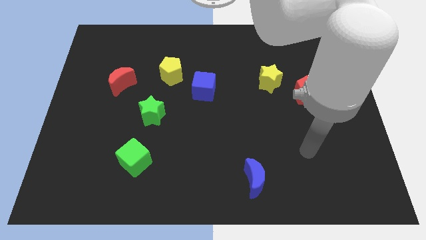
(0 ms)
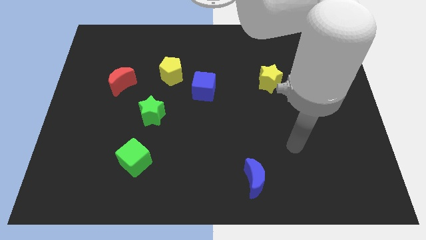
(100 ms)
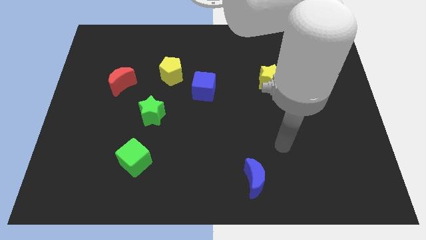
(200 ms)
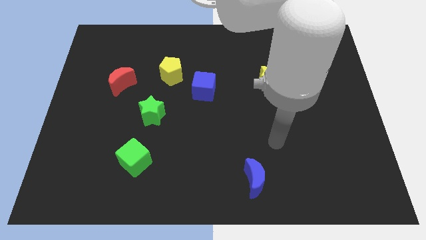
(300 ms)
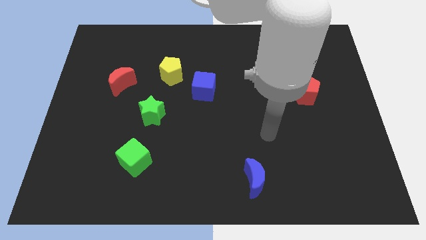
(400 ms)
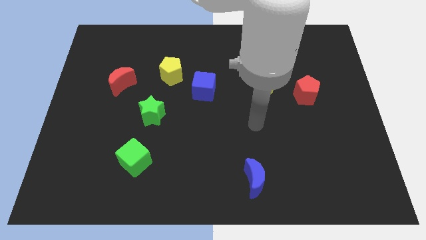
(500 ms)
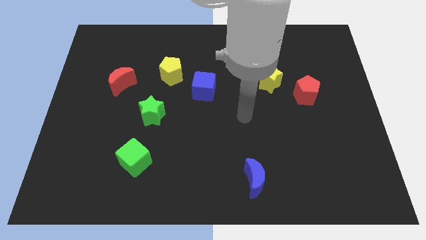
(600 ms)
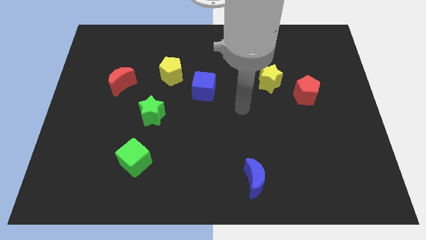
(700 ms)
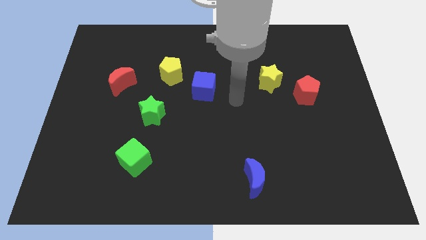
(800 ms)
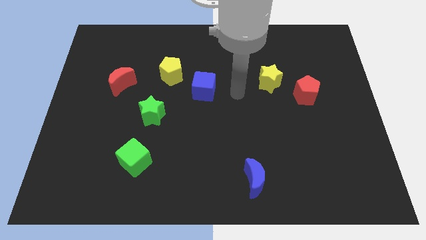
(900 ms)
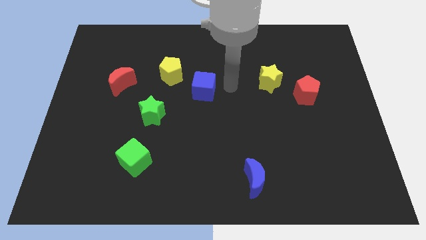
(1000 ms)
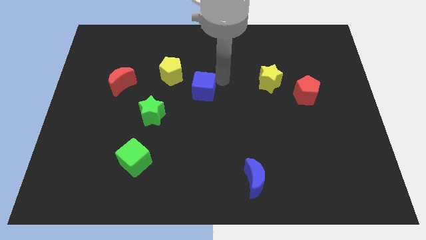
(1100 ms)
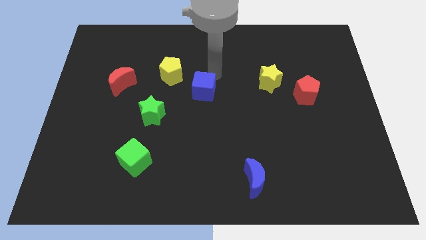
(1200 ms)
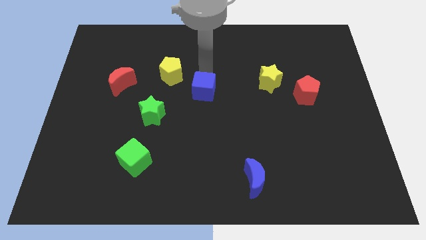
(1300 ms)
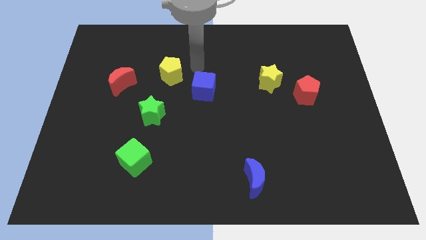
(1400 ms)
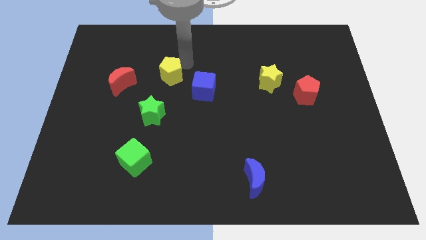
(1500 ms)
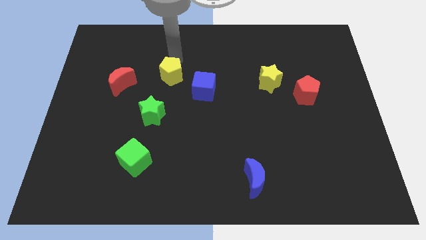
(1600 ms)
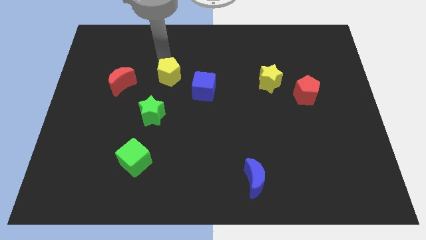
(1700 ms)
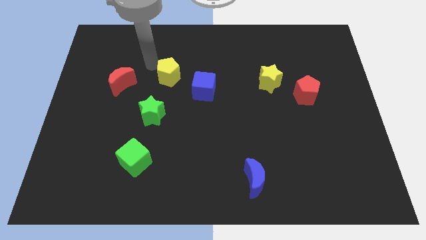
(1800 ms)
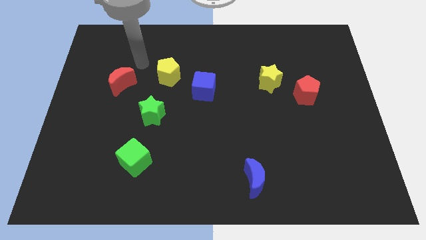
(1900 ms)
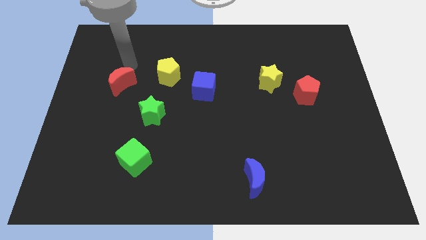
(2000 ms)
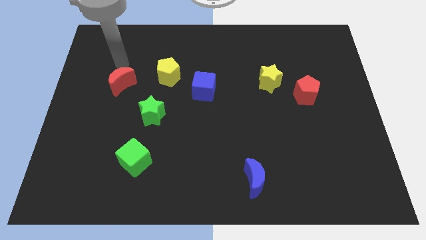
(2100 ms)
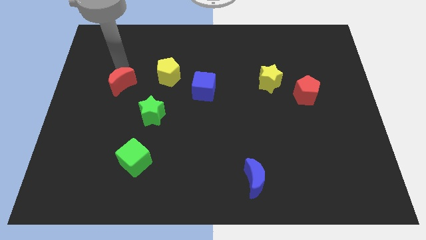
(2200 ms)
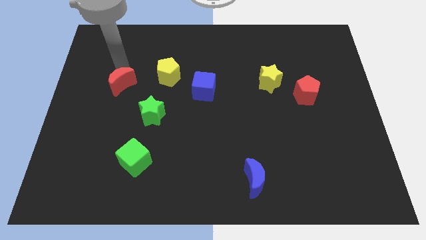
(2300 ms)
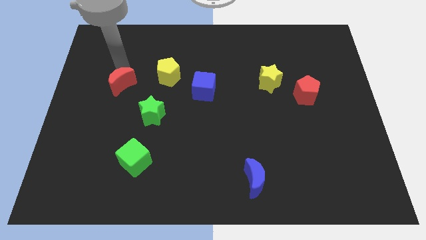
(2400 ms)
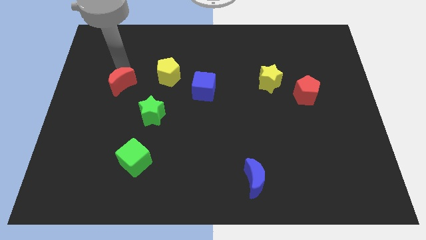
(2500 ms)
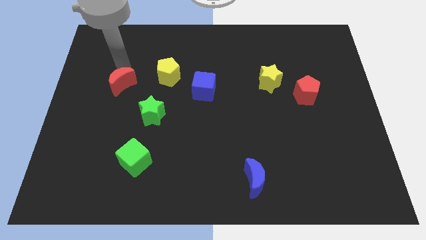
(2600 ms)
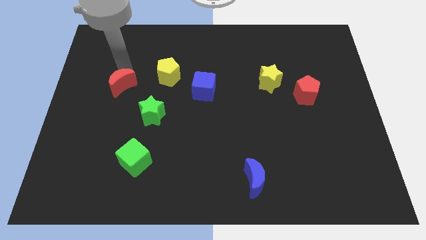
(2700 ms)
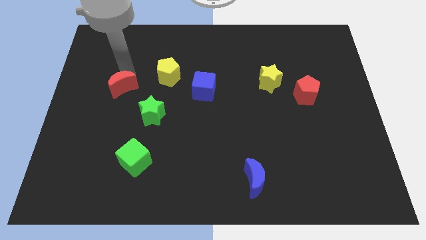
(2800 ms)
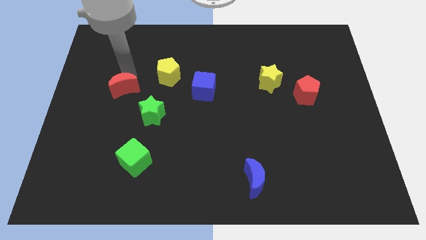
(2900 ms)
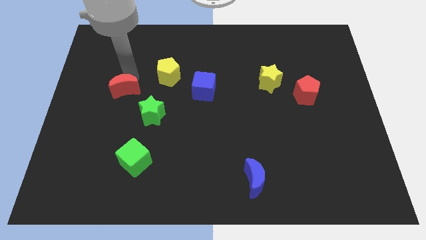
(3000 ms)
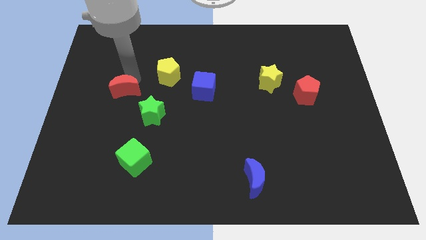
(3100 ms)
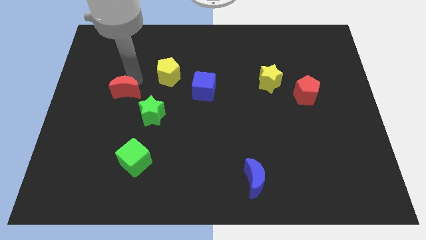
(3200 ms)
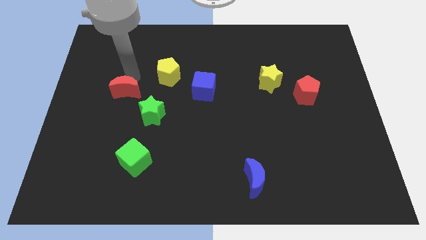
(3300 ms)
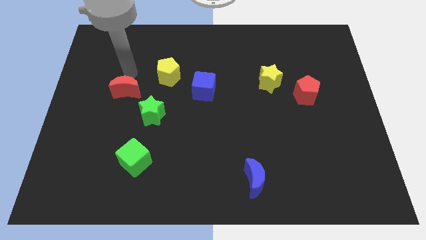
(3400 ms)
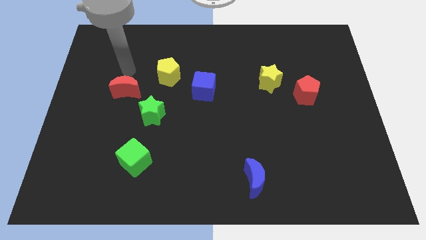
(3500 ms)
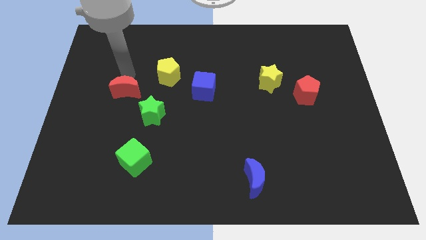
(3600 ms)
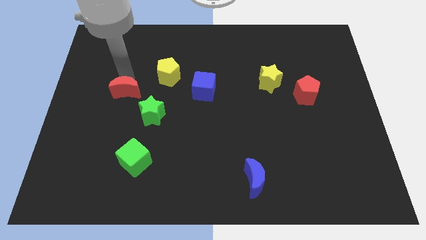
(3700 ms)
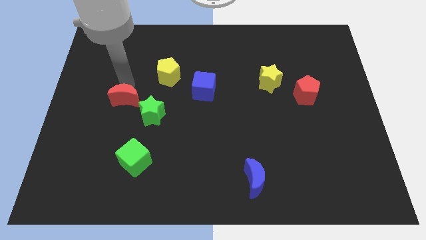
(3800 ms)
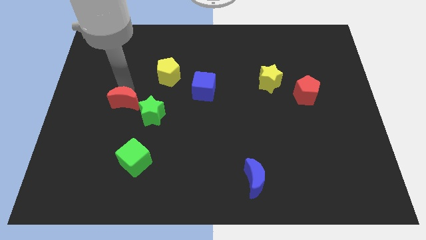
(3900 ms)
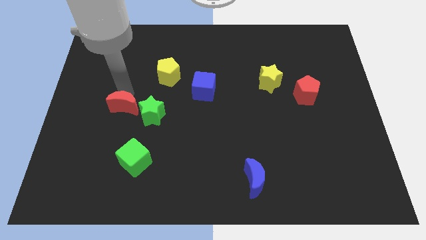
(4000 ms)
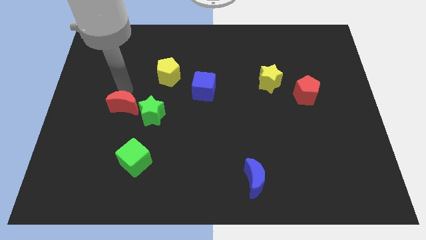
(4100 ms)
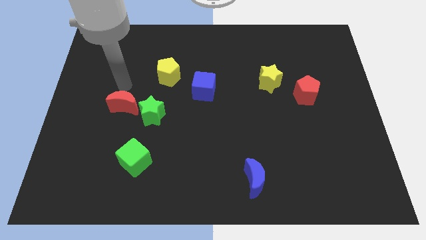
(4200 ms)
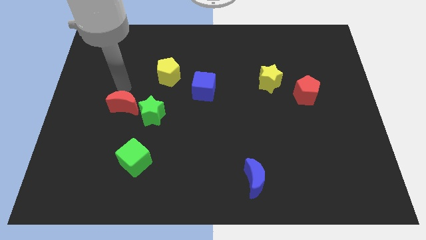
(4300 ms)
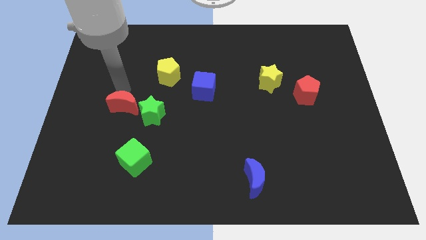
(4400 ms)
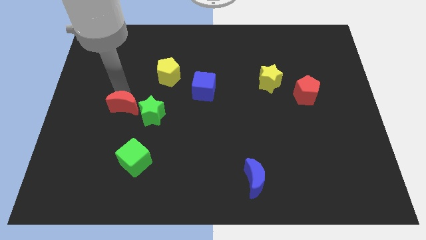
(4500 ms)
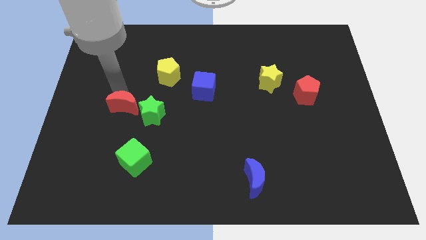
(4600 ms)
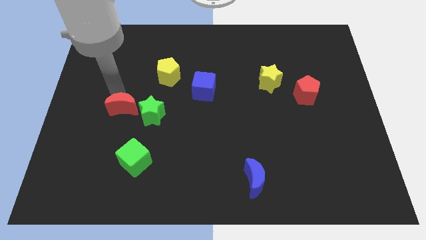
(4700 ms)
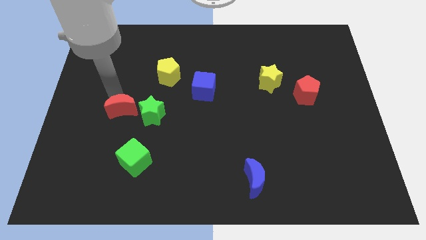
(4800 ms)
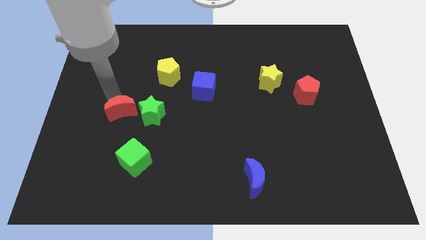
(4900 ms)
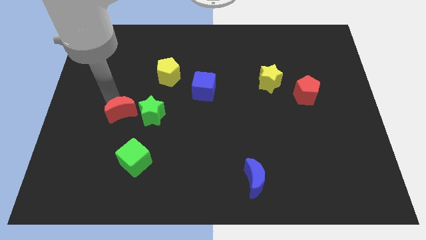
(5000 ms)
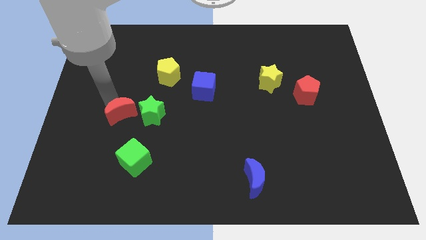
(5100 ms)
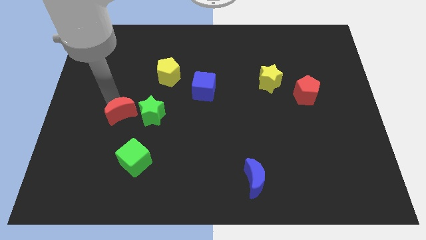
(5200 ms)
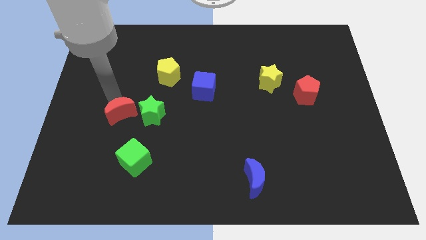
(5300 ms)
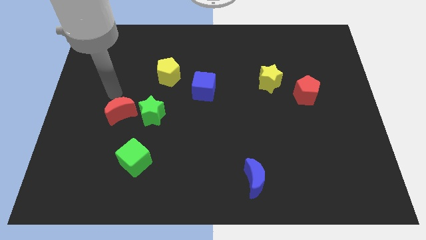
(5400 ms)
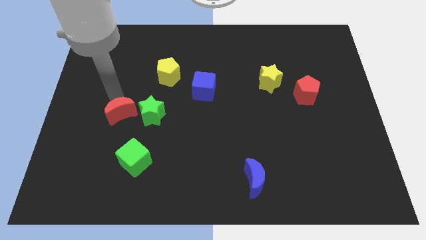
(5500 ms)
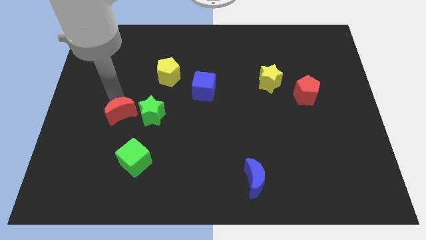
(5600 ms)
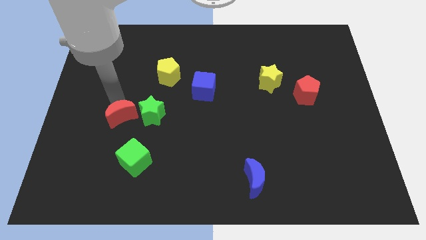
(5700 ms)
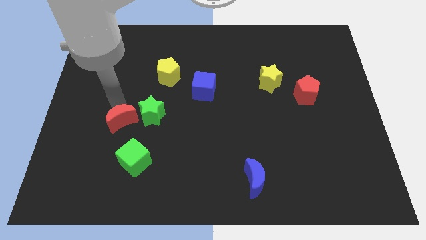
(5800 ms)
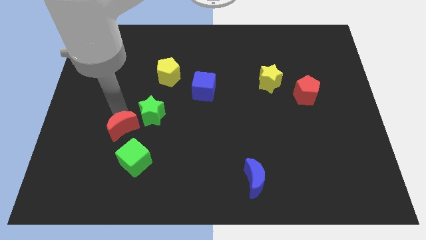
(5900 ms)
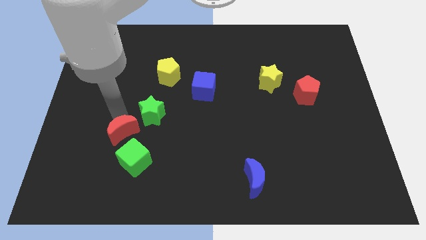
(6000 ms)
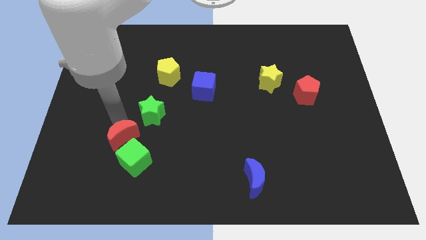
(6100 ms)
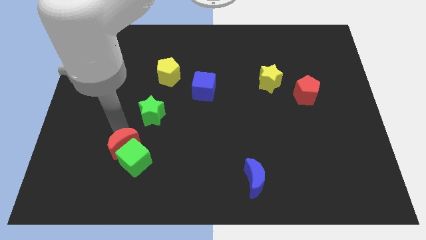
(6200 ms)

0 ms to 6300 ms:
slide the red moon close to the green cube

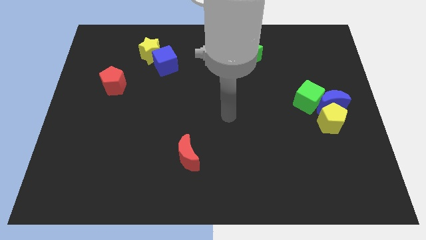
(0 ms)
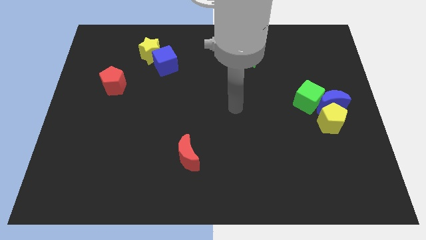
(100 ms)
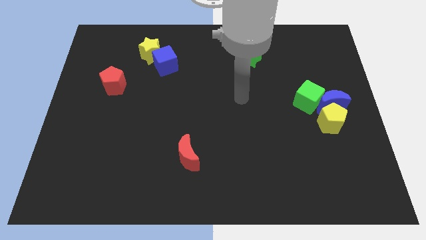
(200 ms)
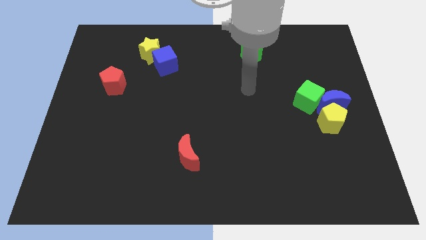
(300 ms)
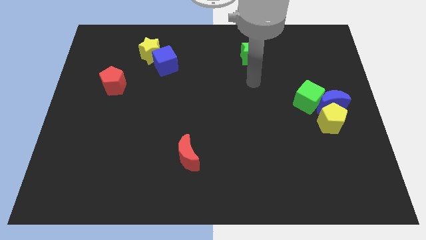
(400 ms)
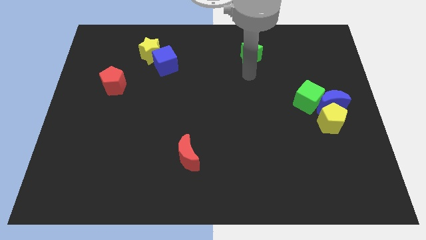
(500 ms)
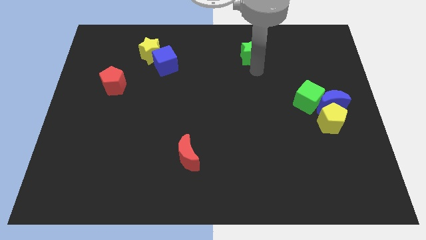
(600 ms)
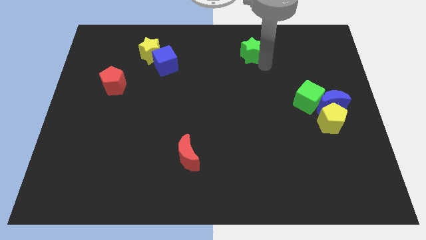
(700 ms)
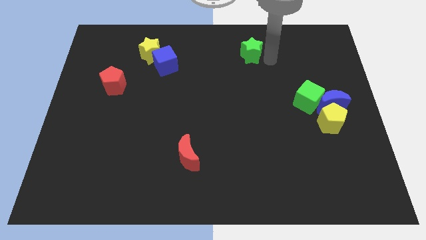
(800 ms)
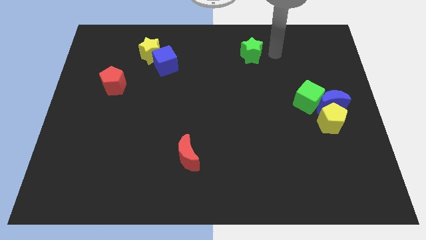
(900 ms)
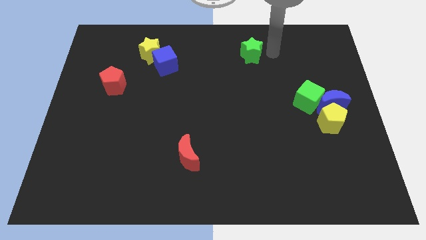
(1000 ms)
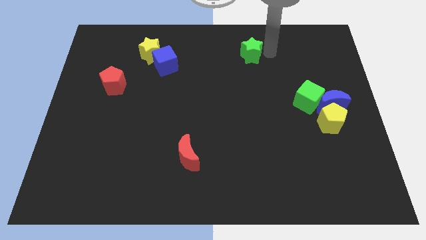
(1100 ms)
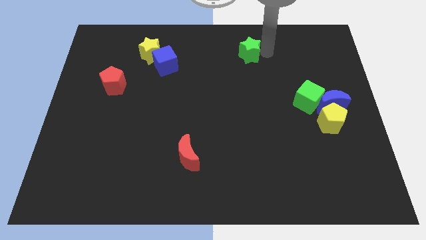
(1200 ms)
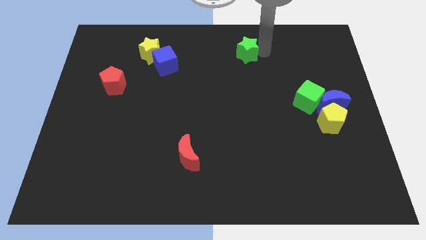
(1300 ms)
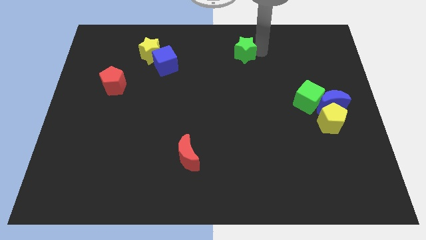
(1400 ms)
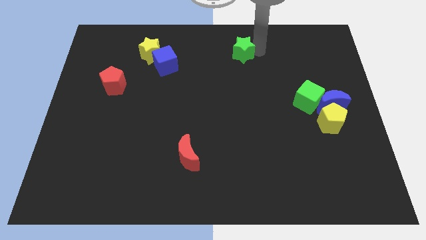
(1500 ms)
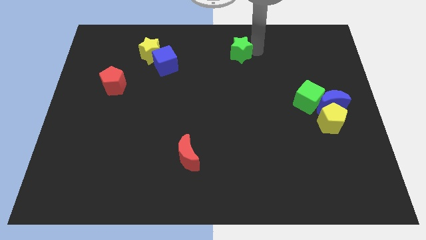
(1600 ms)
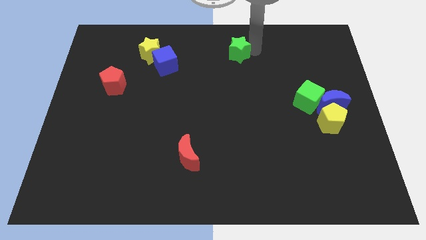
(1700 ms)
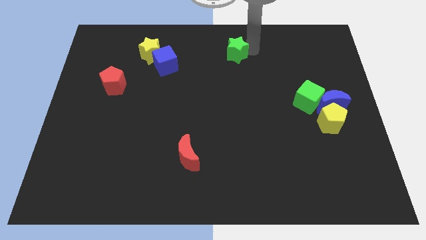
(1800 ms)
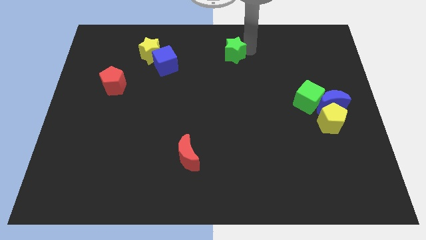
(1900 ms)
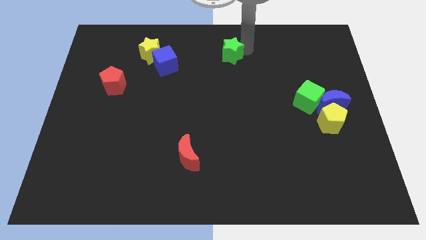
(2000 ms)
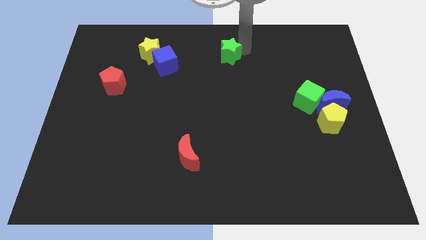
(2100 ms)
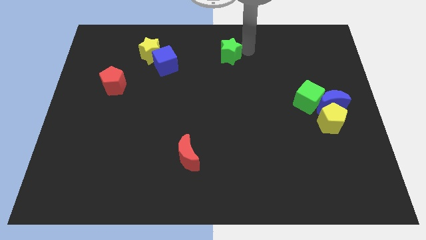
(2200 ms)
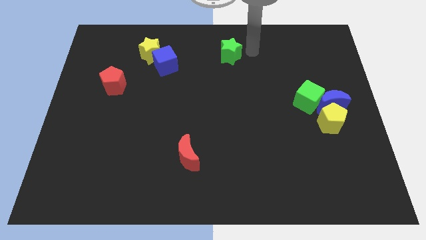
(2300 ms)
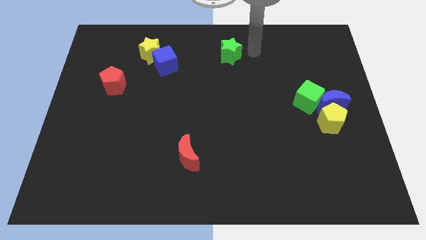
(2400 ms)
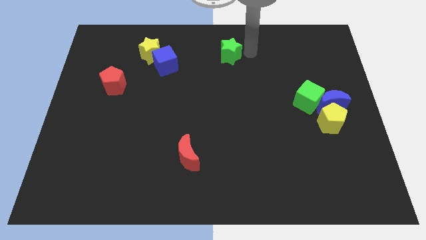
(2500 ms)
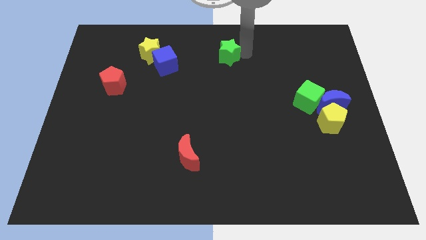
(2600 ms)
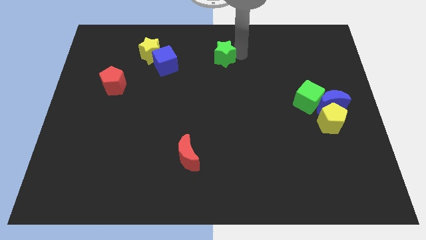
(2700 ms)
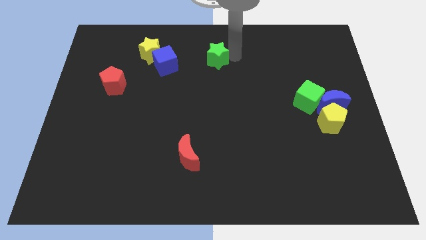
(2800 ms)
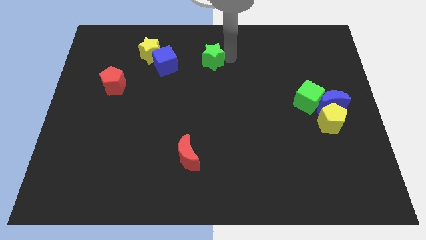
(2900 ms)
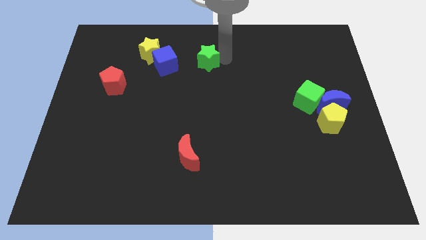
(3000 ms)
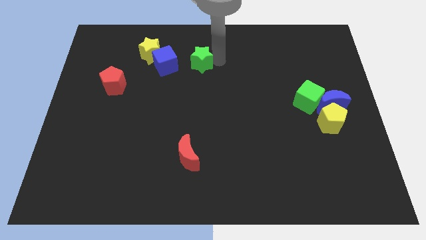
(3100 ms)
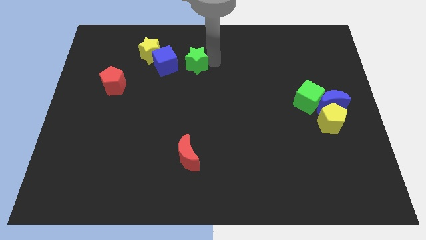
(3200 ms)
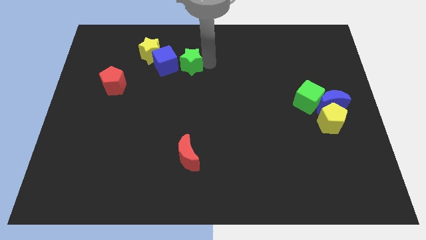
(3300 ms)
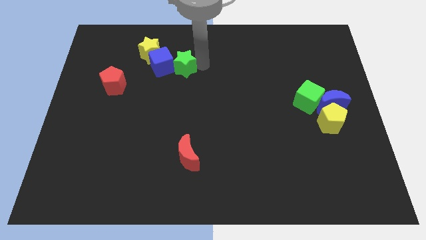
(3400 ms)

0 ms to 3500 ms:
push the green star next to the blue cube
